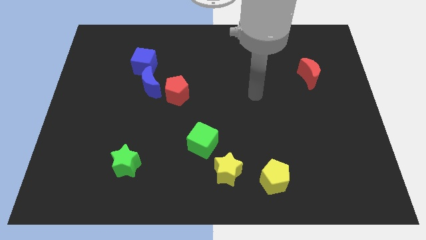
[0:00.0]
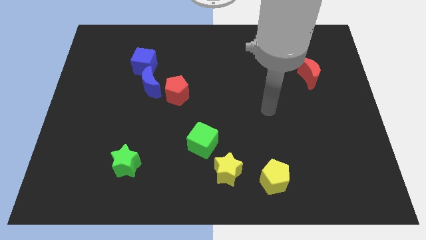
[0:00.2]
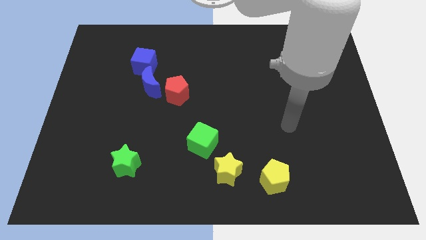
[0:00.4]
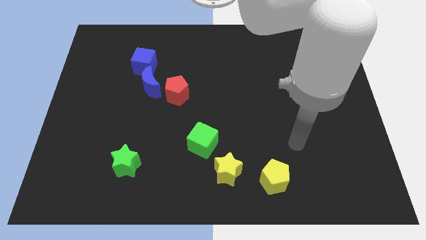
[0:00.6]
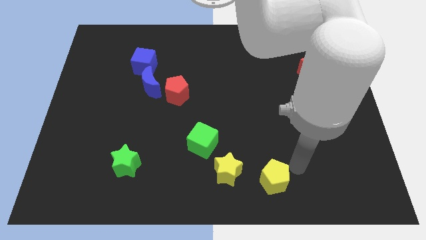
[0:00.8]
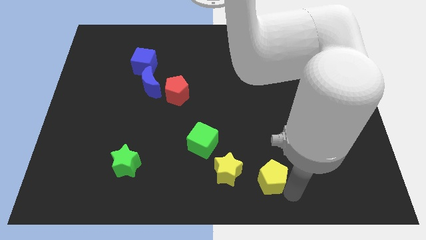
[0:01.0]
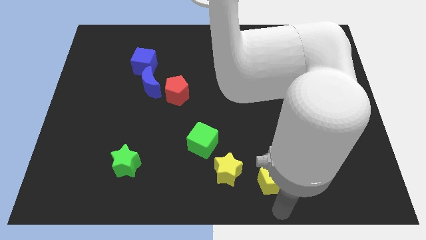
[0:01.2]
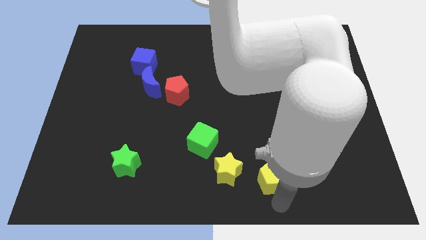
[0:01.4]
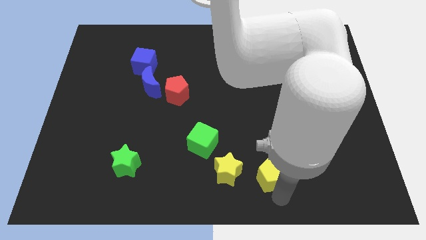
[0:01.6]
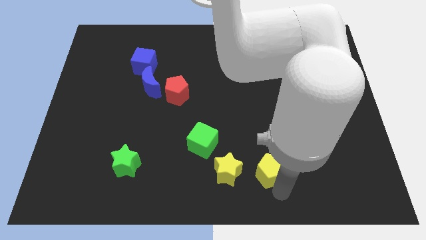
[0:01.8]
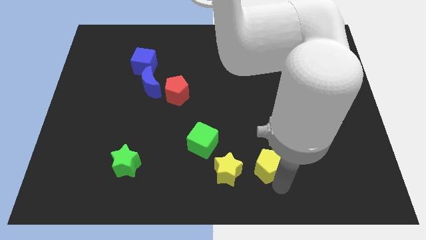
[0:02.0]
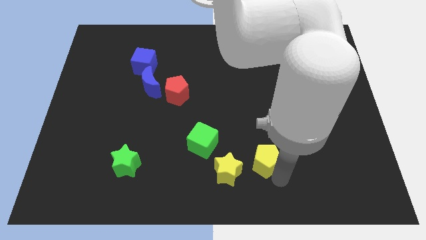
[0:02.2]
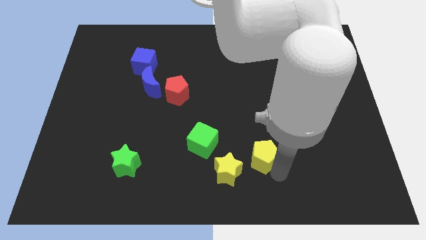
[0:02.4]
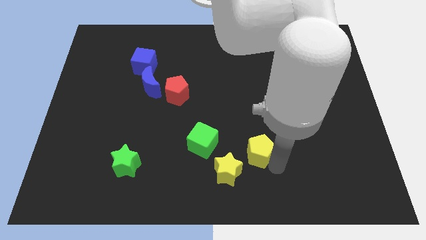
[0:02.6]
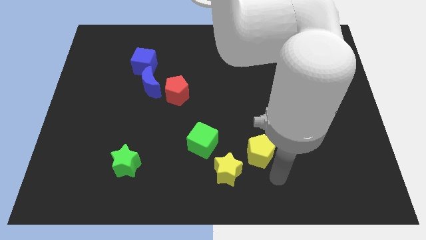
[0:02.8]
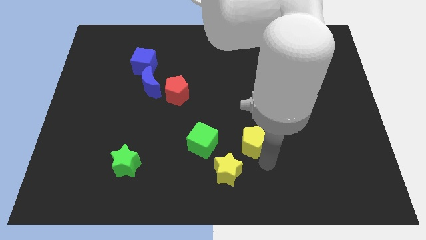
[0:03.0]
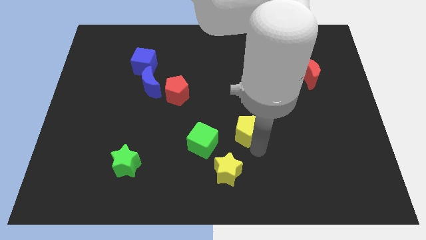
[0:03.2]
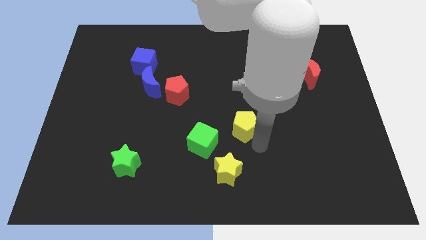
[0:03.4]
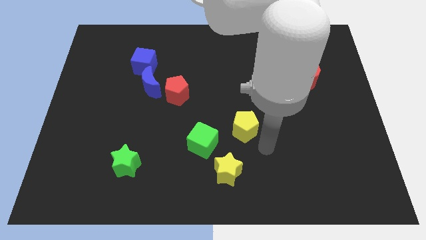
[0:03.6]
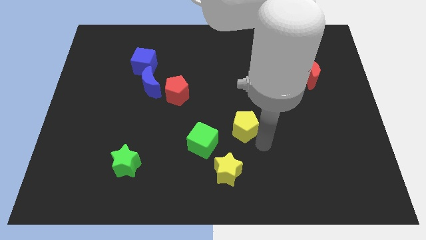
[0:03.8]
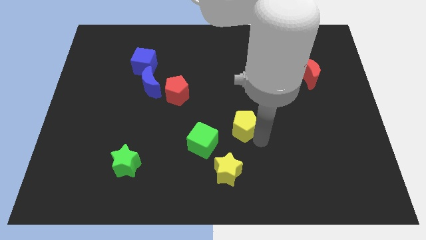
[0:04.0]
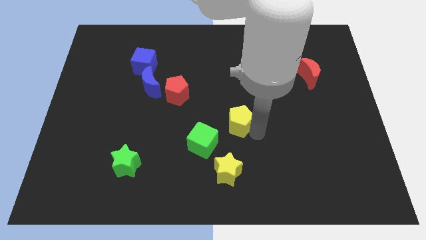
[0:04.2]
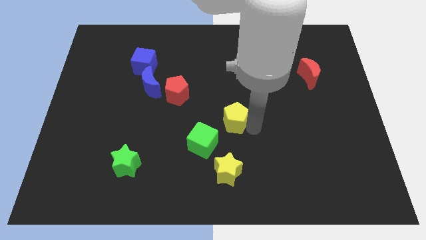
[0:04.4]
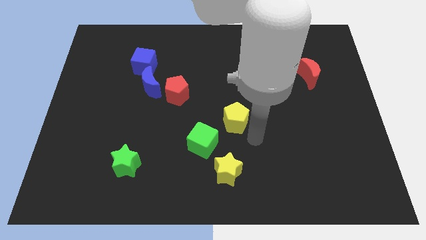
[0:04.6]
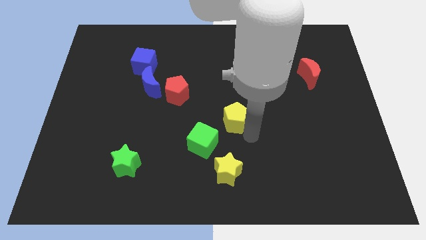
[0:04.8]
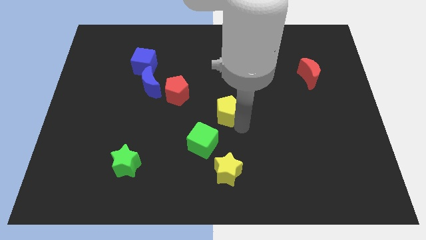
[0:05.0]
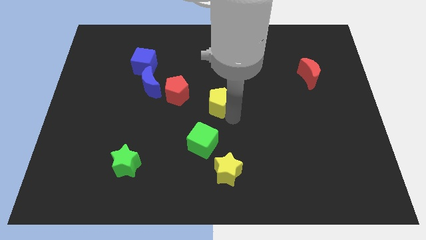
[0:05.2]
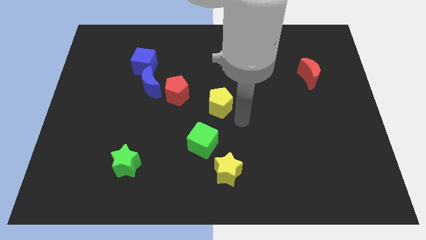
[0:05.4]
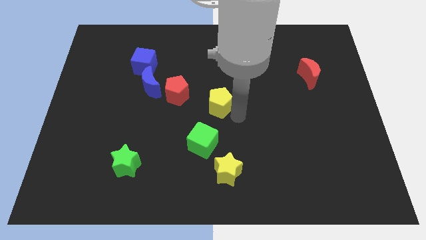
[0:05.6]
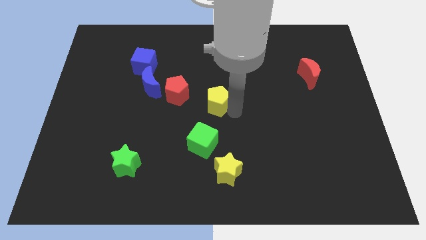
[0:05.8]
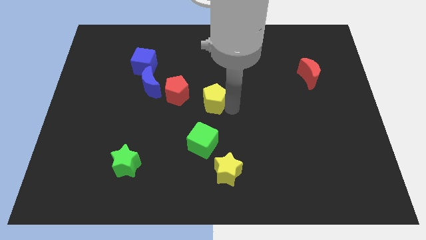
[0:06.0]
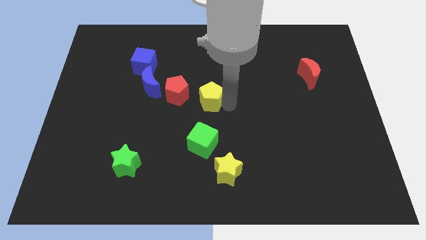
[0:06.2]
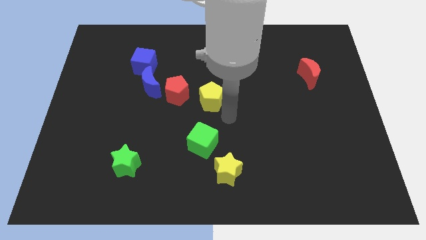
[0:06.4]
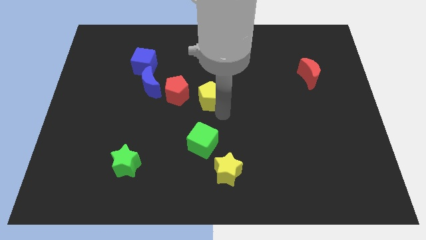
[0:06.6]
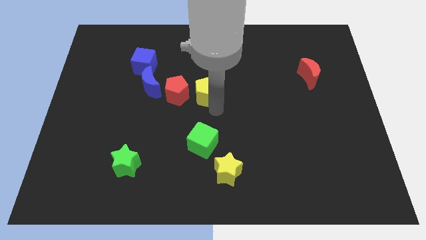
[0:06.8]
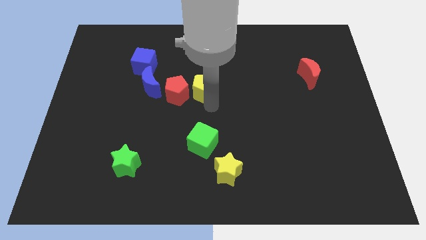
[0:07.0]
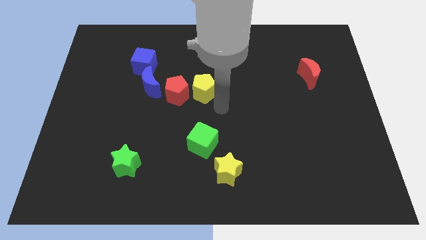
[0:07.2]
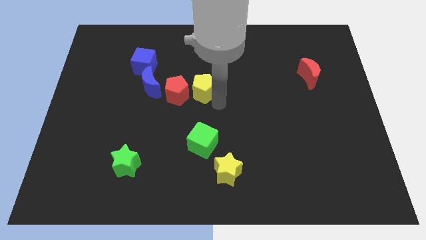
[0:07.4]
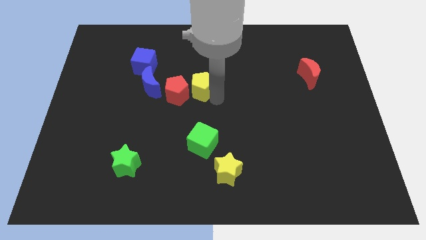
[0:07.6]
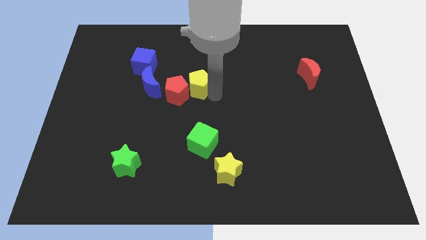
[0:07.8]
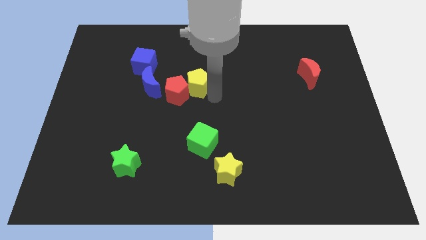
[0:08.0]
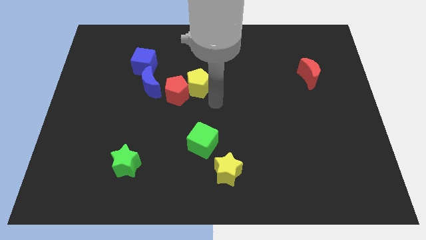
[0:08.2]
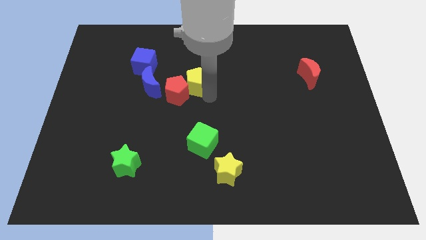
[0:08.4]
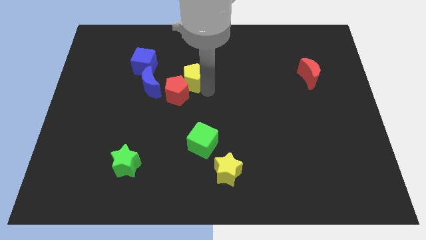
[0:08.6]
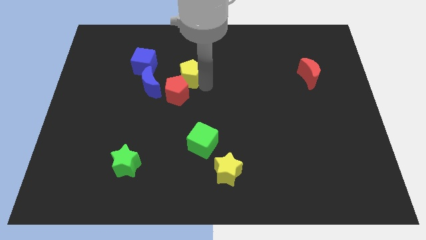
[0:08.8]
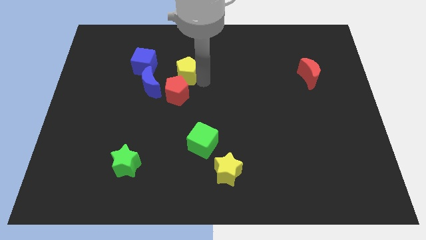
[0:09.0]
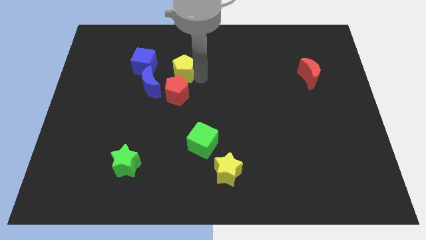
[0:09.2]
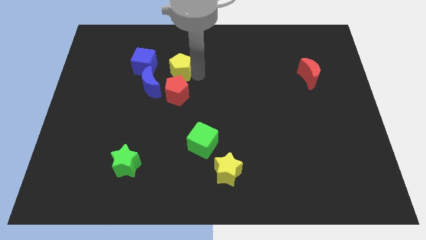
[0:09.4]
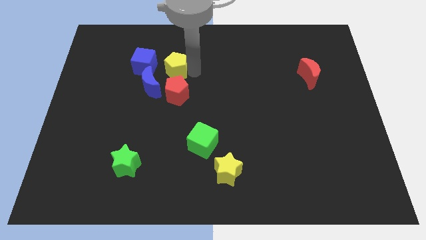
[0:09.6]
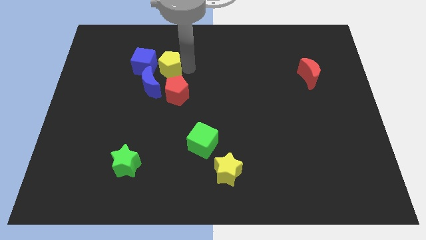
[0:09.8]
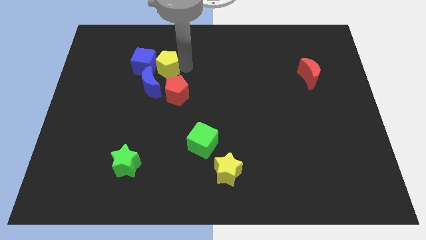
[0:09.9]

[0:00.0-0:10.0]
slide the yellow pentagon towards the blue cube

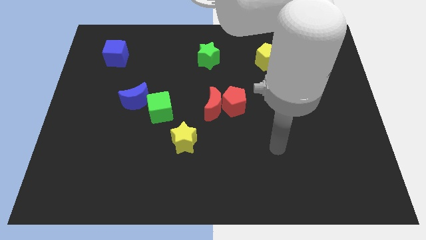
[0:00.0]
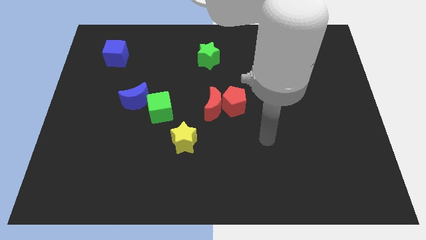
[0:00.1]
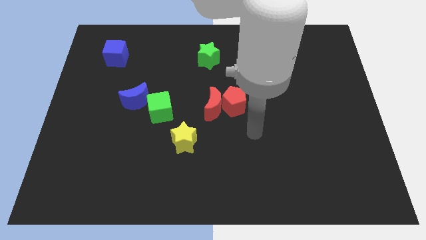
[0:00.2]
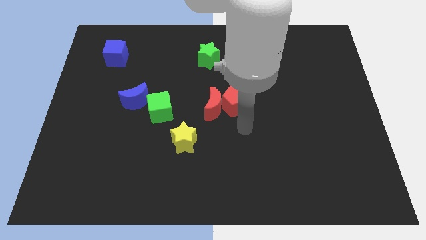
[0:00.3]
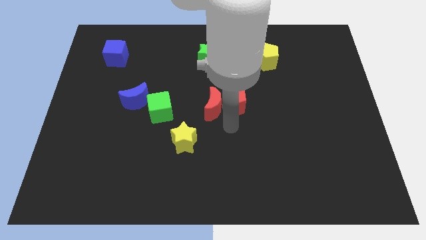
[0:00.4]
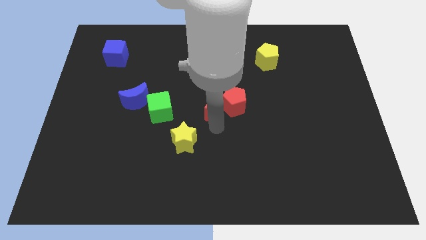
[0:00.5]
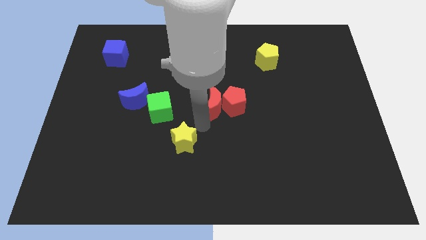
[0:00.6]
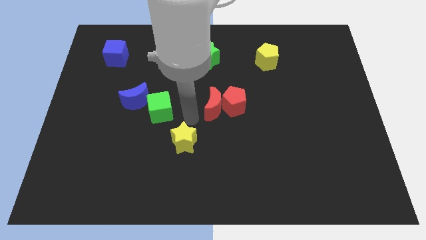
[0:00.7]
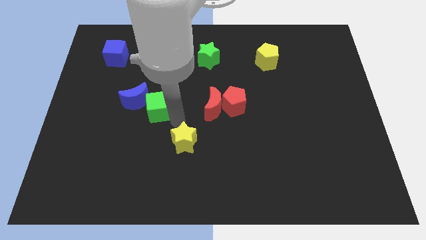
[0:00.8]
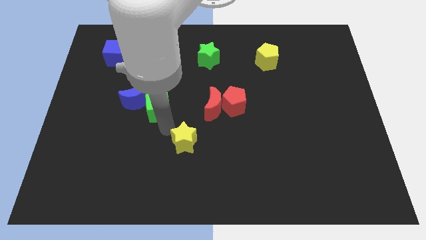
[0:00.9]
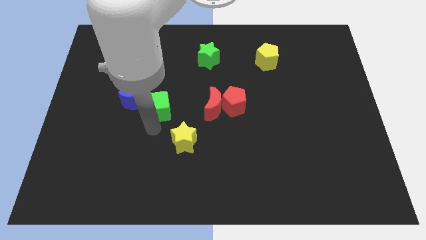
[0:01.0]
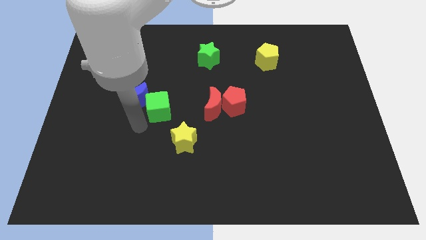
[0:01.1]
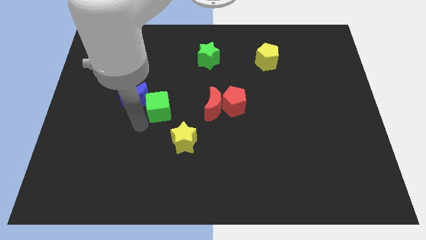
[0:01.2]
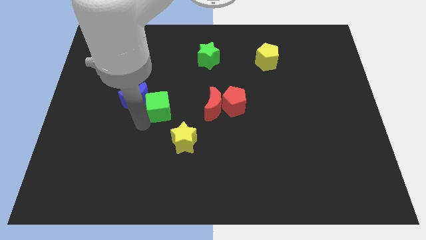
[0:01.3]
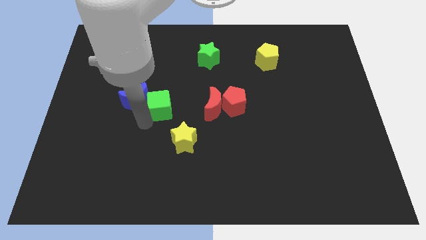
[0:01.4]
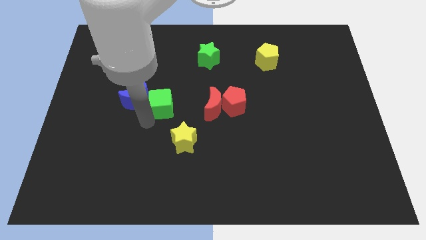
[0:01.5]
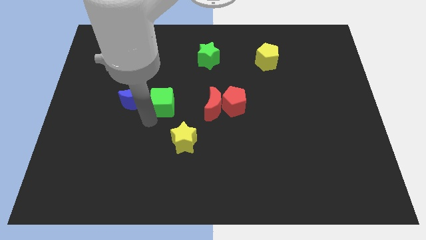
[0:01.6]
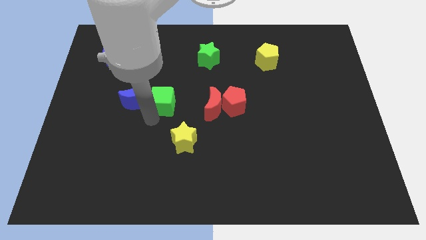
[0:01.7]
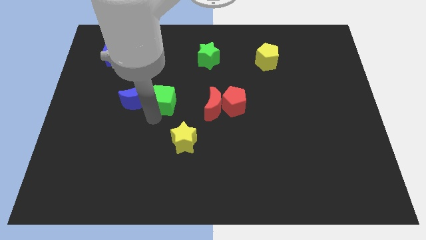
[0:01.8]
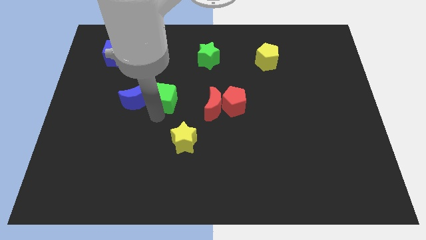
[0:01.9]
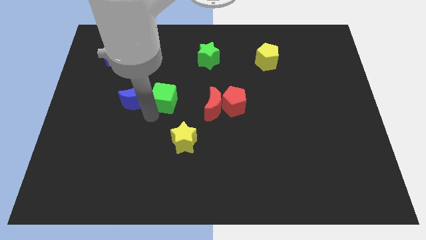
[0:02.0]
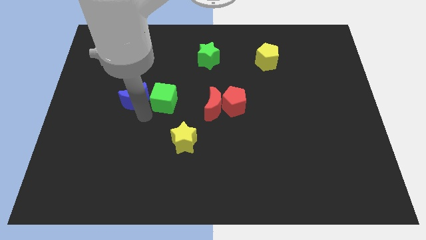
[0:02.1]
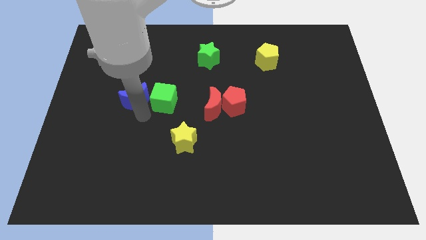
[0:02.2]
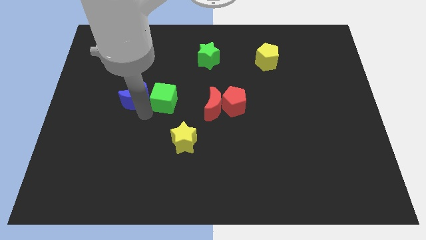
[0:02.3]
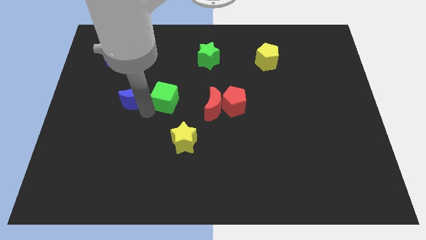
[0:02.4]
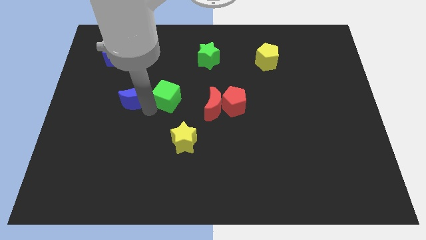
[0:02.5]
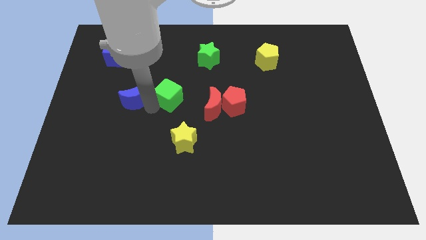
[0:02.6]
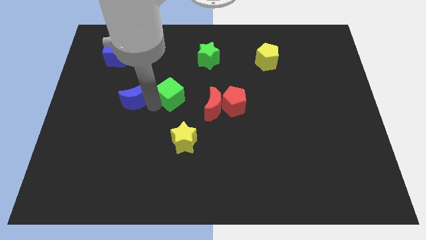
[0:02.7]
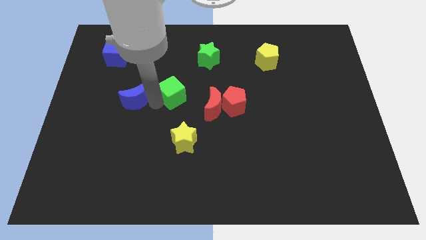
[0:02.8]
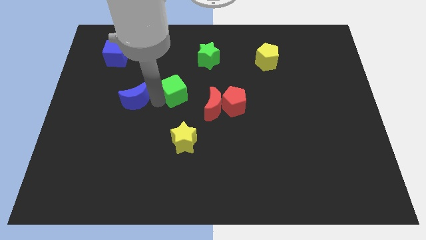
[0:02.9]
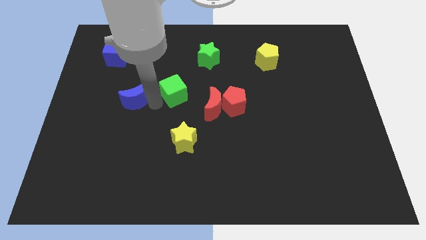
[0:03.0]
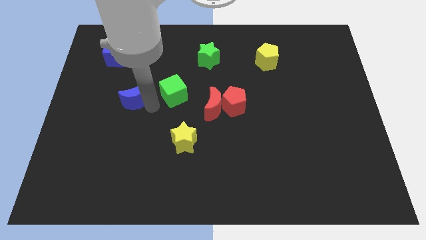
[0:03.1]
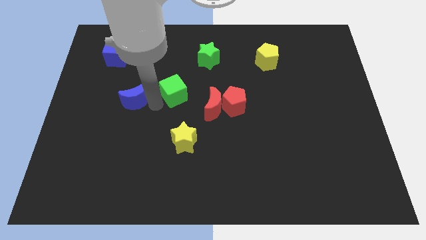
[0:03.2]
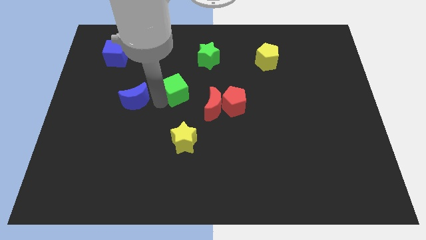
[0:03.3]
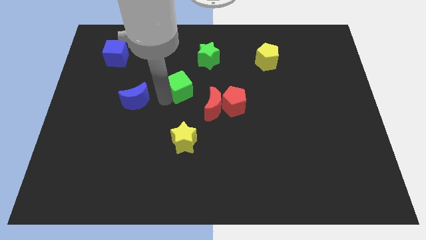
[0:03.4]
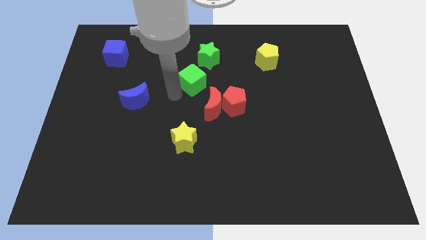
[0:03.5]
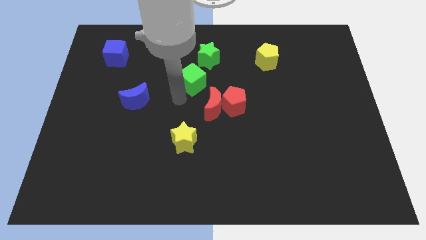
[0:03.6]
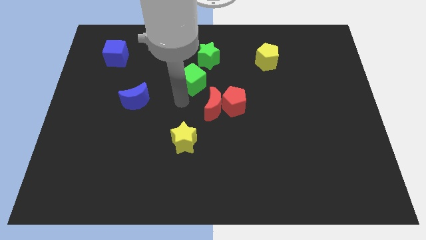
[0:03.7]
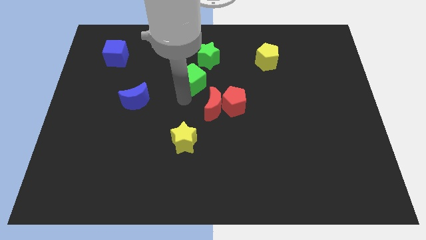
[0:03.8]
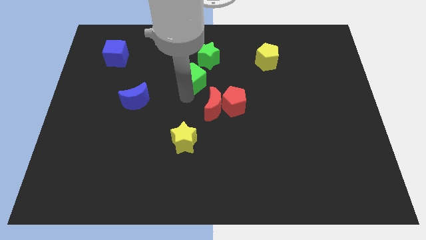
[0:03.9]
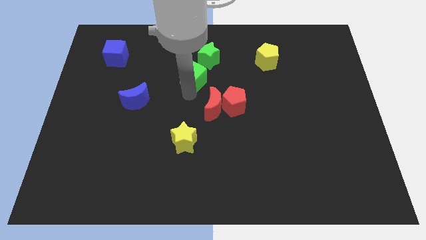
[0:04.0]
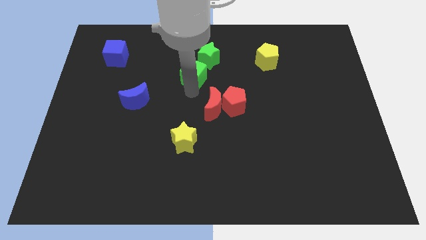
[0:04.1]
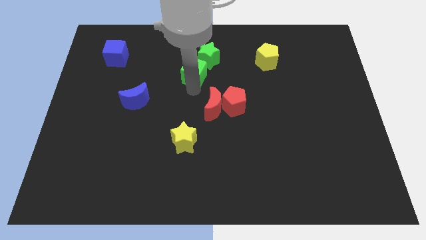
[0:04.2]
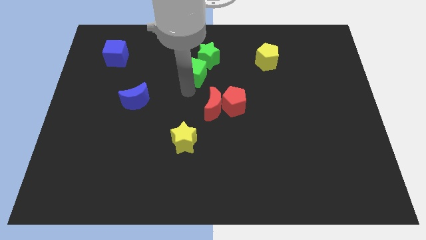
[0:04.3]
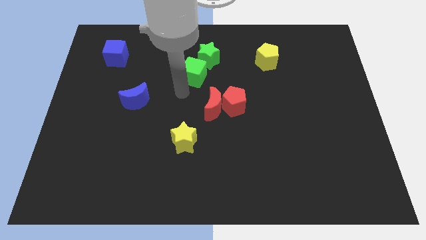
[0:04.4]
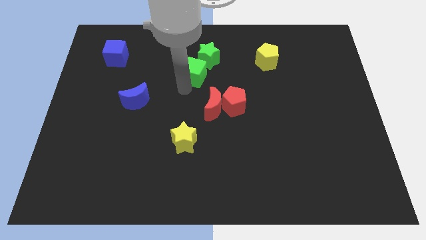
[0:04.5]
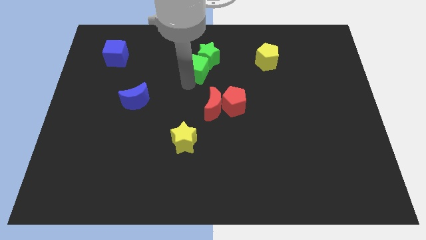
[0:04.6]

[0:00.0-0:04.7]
move the green cube close to the green star
